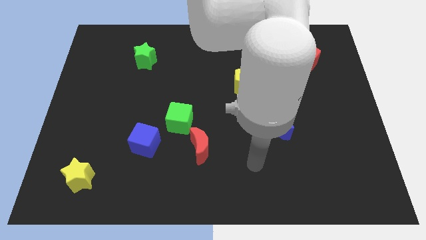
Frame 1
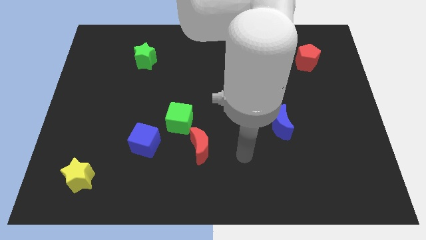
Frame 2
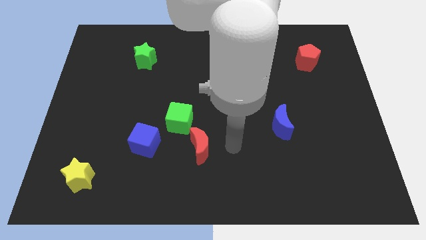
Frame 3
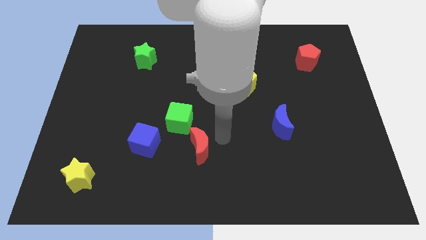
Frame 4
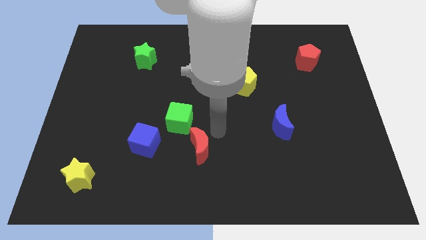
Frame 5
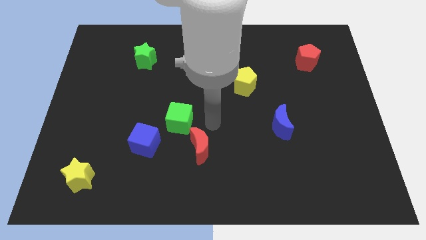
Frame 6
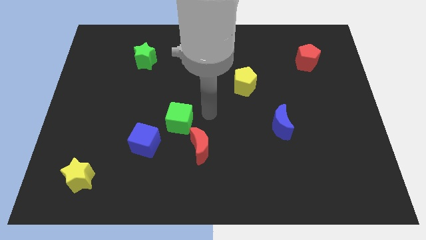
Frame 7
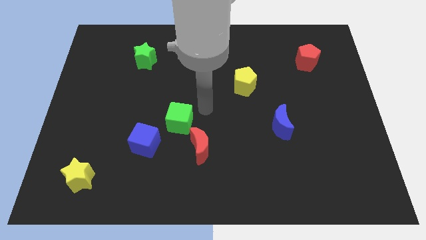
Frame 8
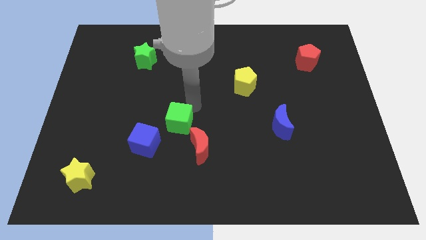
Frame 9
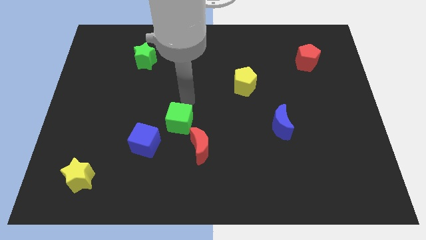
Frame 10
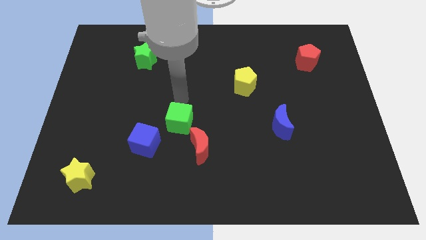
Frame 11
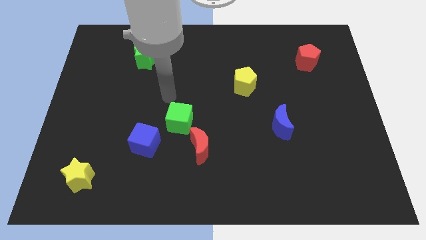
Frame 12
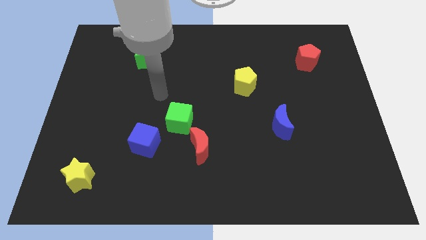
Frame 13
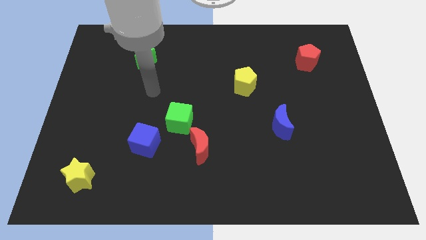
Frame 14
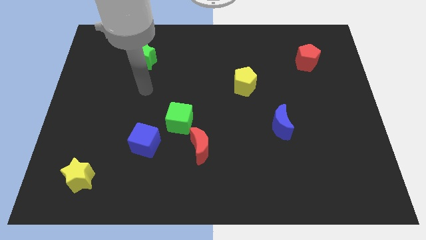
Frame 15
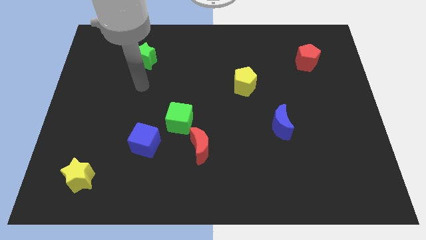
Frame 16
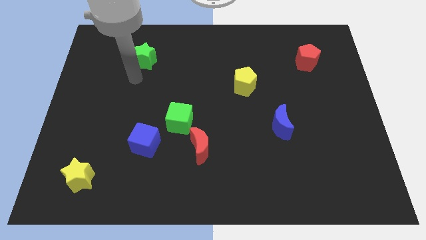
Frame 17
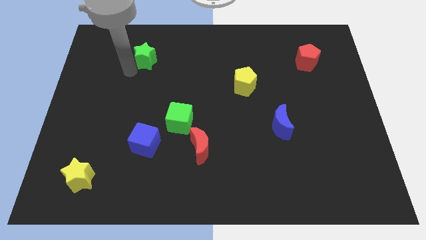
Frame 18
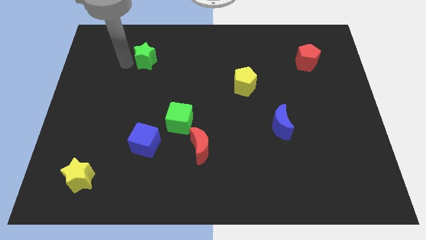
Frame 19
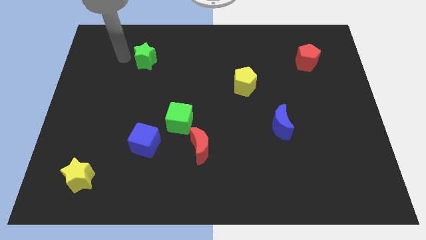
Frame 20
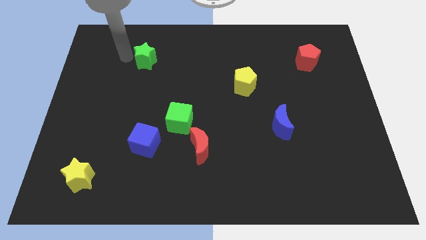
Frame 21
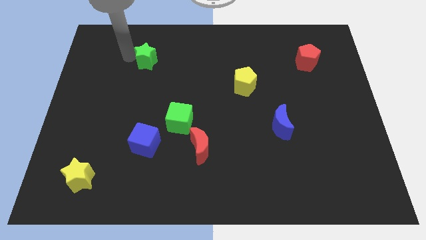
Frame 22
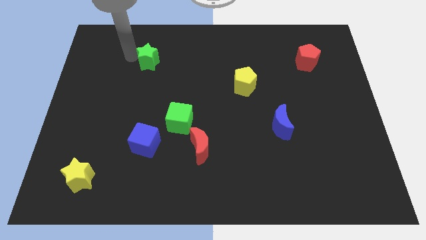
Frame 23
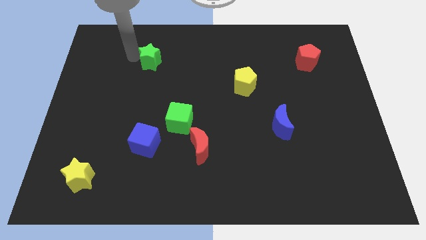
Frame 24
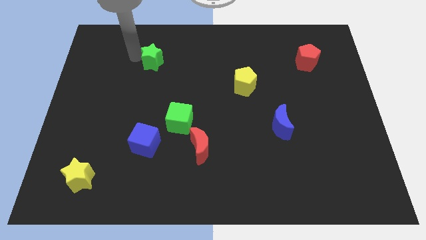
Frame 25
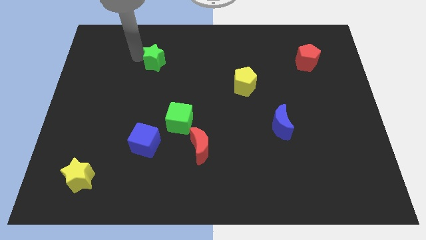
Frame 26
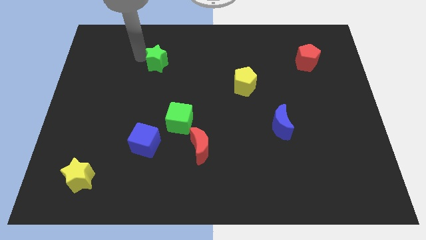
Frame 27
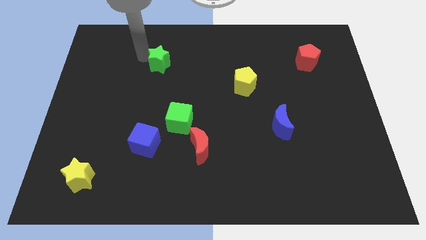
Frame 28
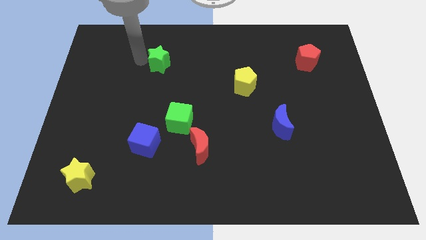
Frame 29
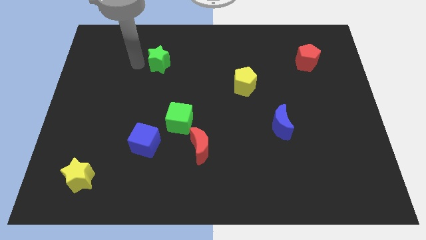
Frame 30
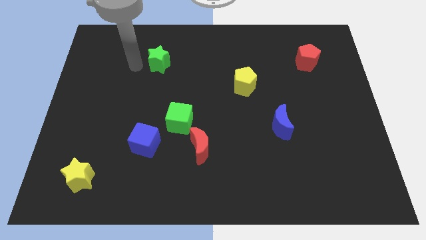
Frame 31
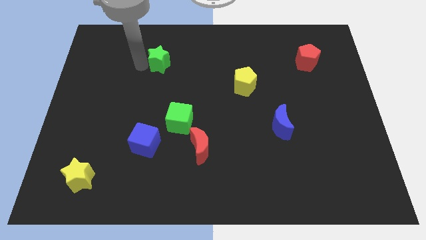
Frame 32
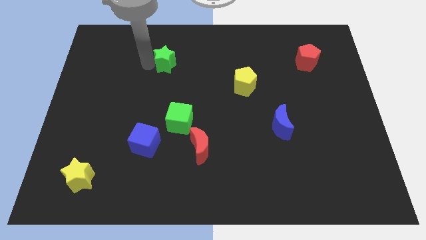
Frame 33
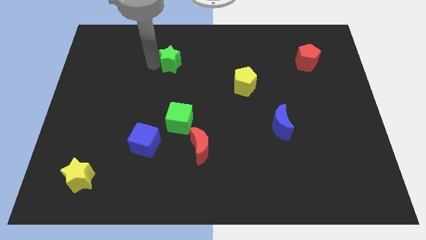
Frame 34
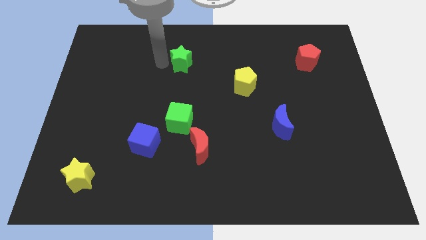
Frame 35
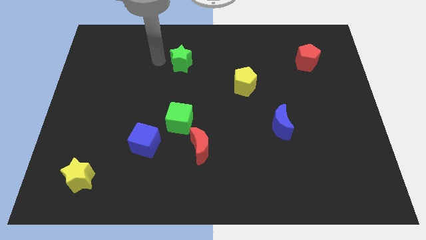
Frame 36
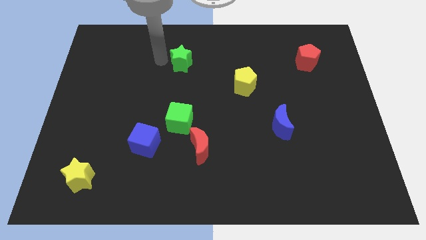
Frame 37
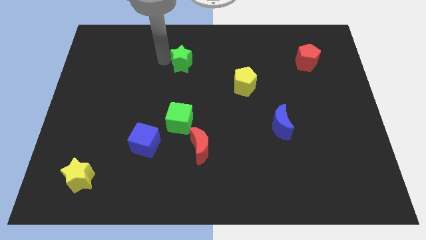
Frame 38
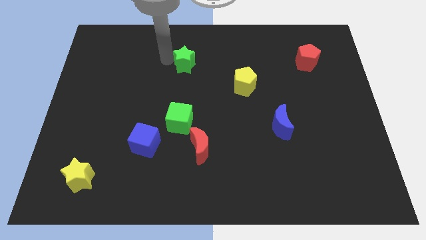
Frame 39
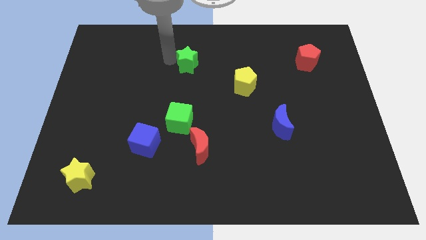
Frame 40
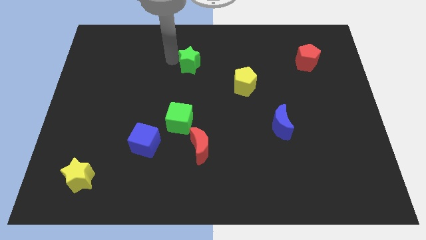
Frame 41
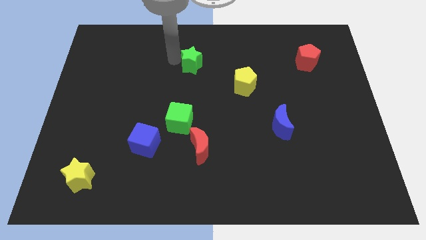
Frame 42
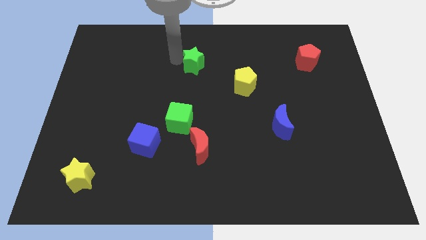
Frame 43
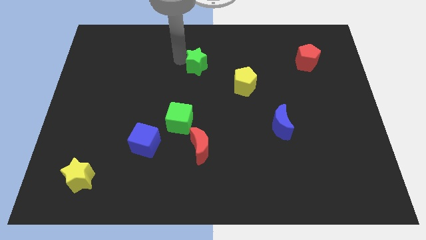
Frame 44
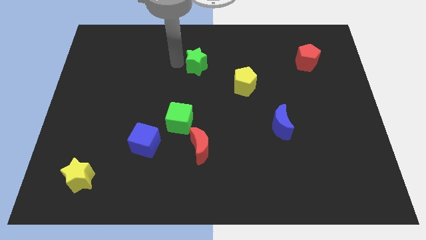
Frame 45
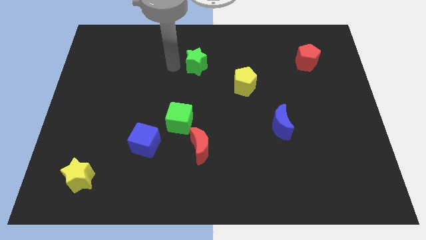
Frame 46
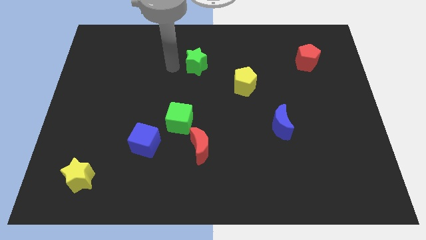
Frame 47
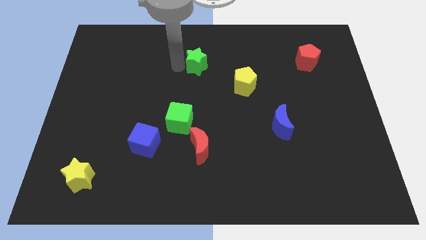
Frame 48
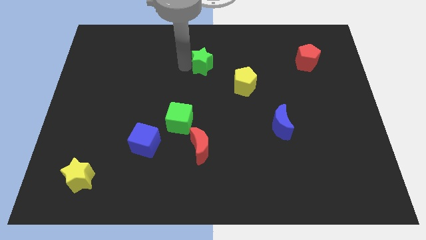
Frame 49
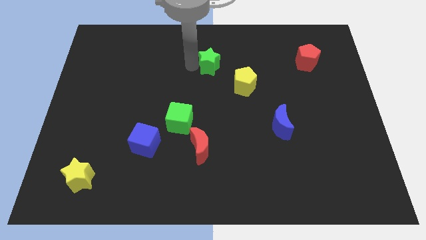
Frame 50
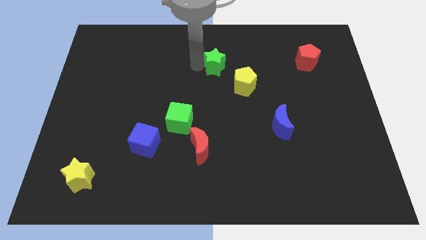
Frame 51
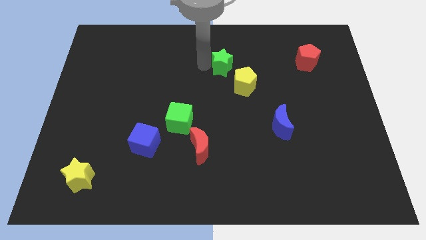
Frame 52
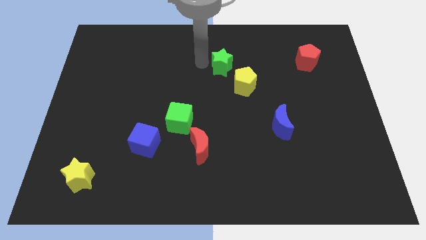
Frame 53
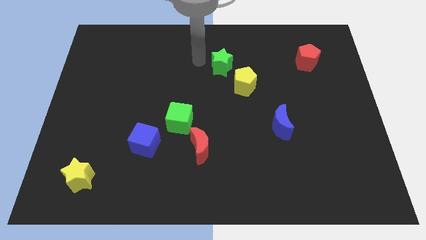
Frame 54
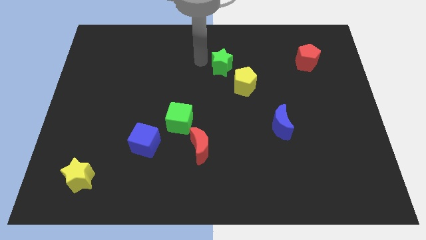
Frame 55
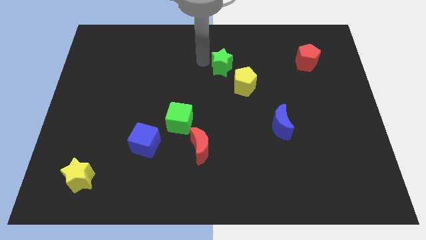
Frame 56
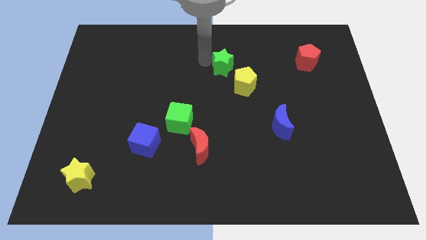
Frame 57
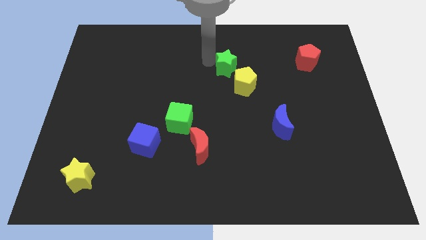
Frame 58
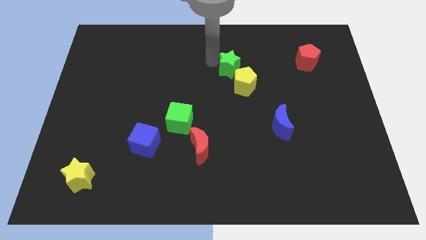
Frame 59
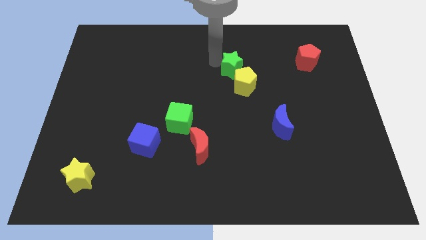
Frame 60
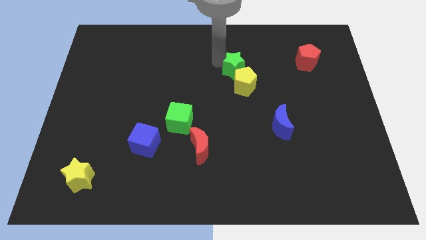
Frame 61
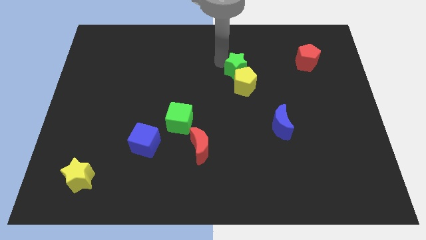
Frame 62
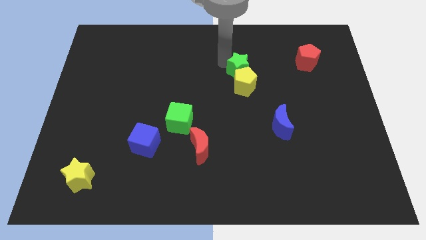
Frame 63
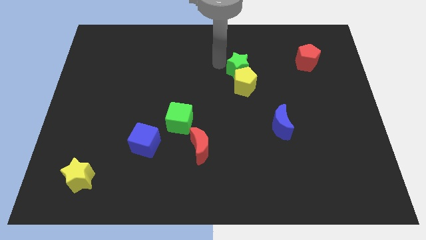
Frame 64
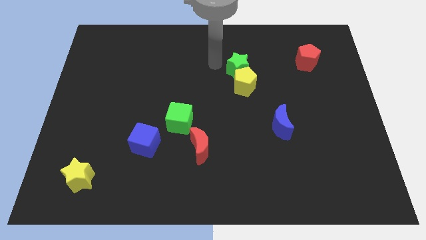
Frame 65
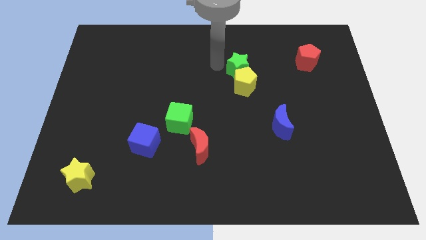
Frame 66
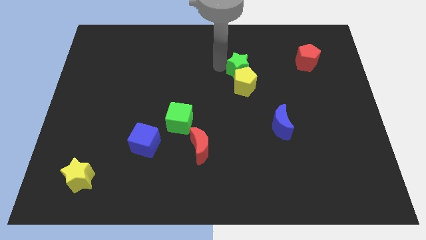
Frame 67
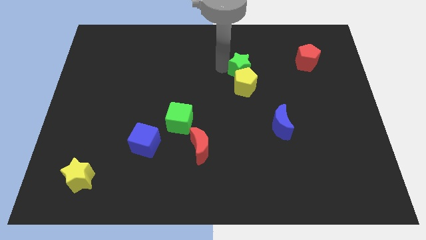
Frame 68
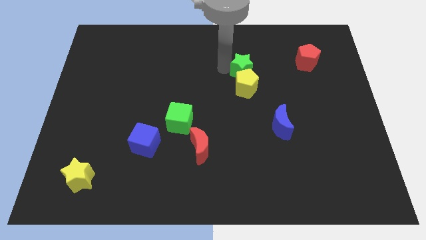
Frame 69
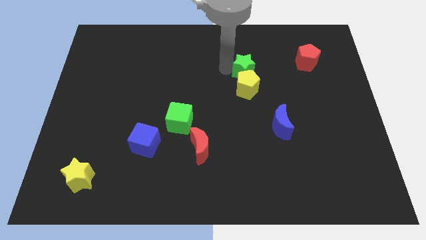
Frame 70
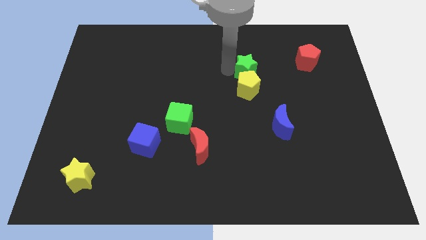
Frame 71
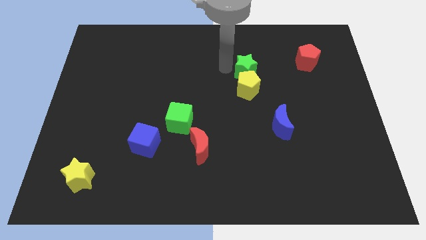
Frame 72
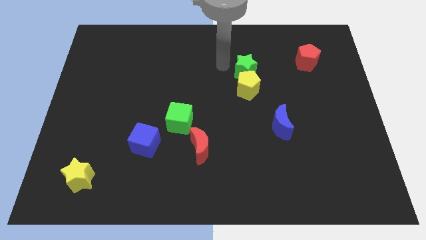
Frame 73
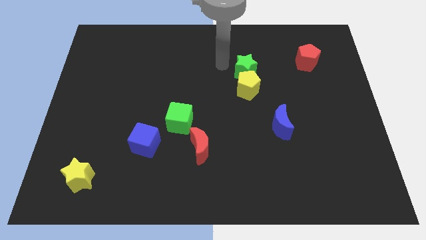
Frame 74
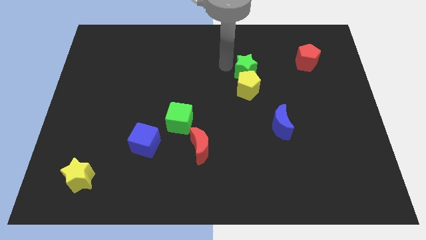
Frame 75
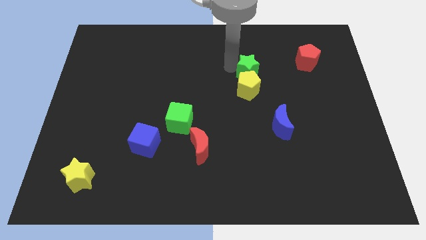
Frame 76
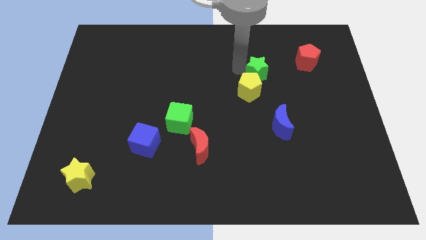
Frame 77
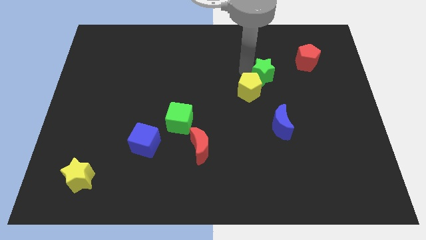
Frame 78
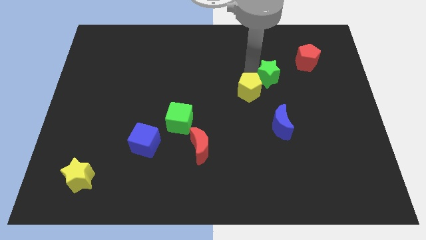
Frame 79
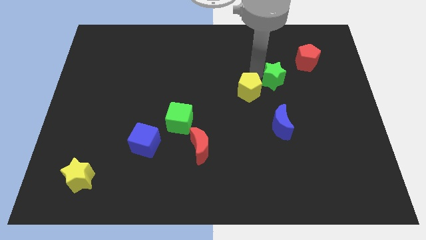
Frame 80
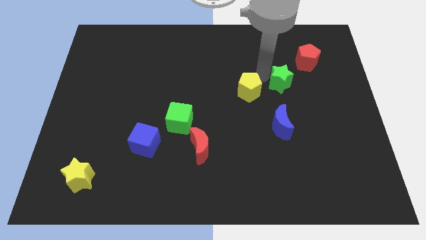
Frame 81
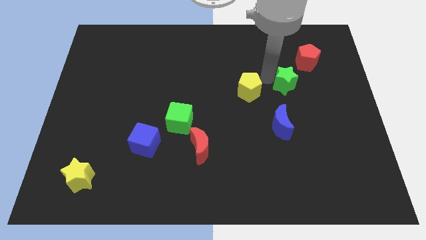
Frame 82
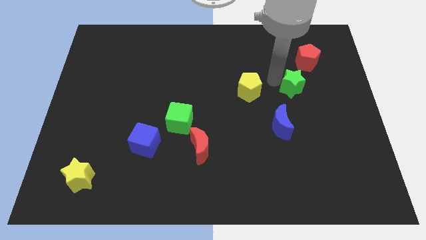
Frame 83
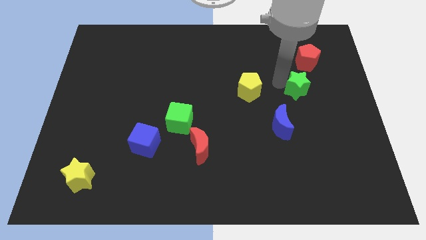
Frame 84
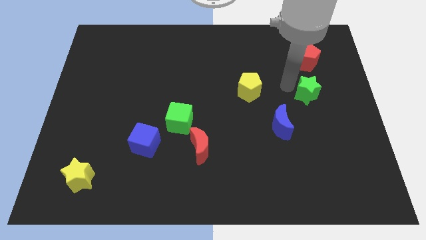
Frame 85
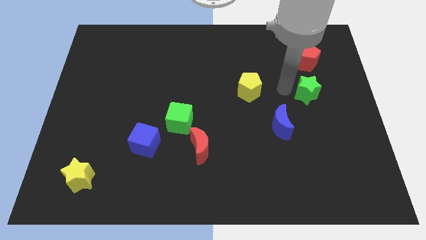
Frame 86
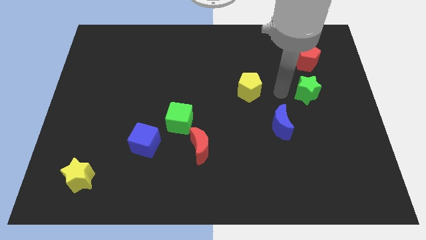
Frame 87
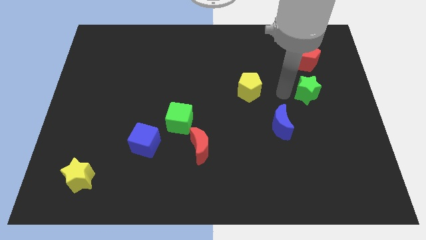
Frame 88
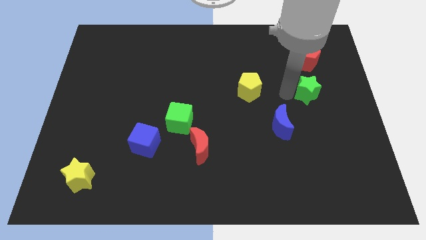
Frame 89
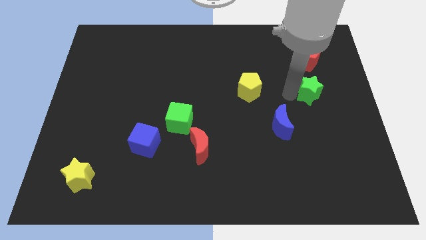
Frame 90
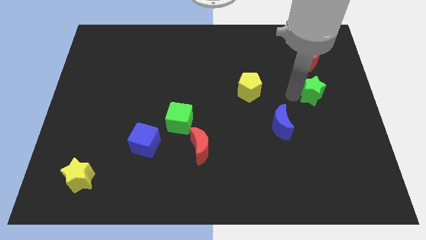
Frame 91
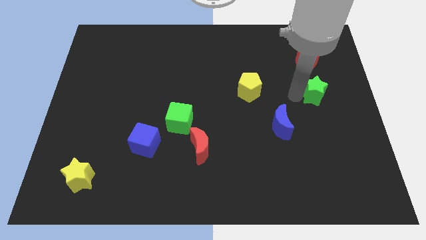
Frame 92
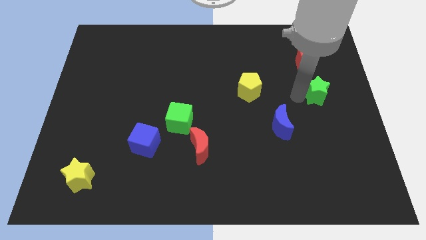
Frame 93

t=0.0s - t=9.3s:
move the green star to the right side
